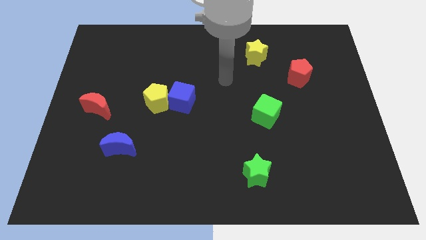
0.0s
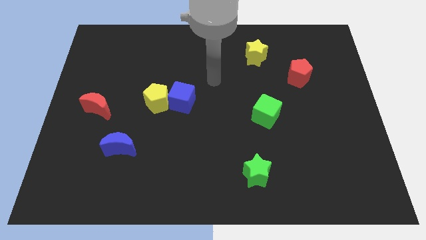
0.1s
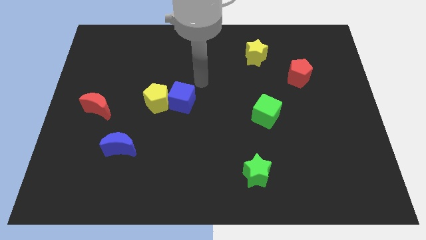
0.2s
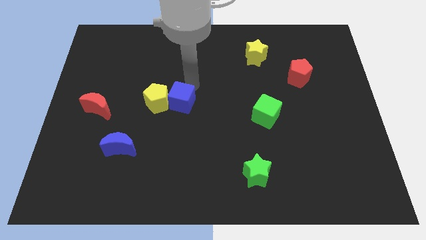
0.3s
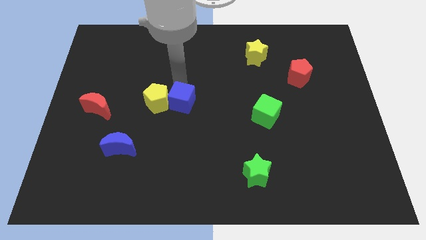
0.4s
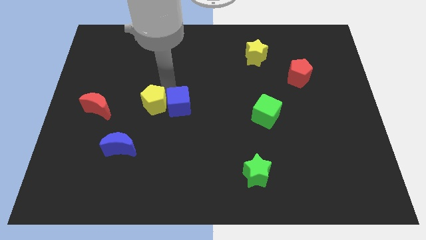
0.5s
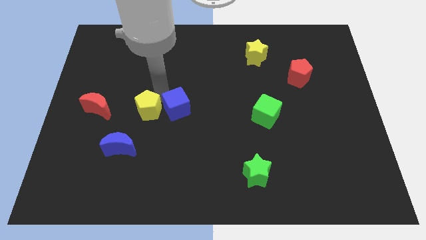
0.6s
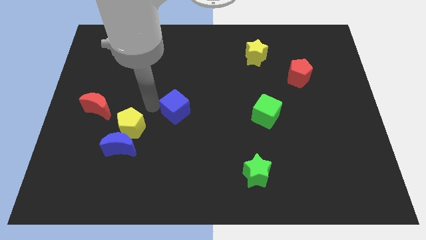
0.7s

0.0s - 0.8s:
move the blue cube away from the yellow pentagon

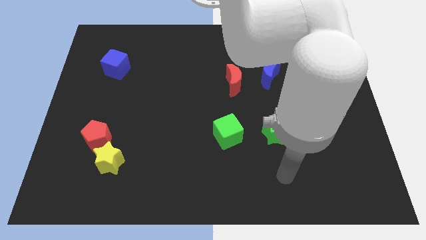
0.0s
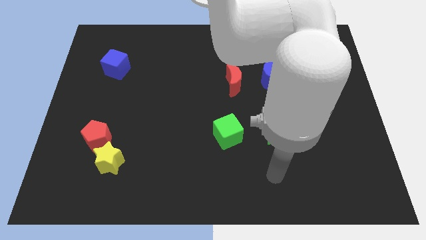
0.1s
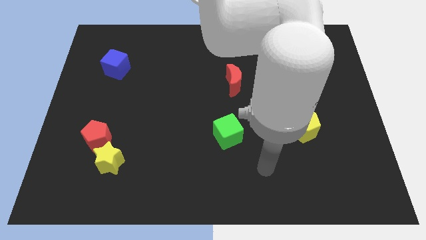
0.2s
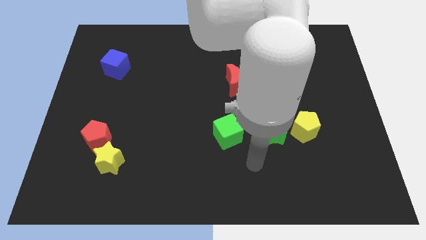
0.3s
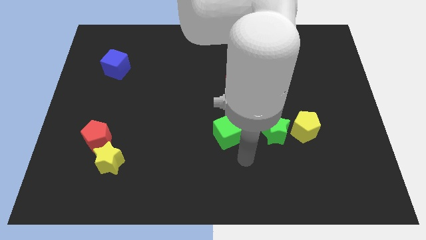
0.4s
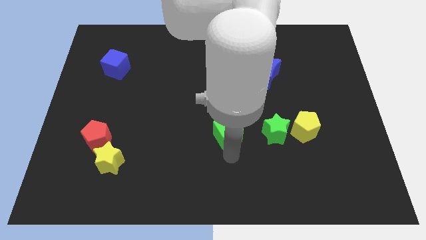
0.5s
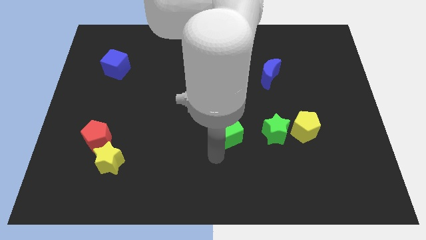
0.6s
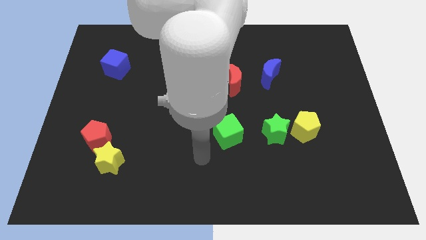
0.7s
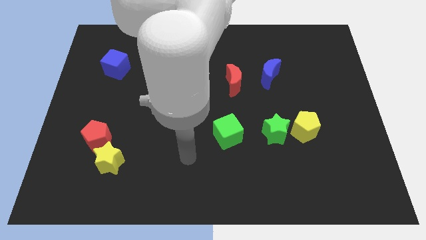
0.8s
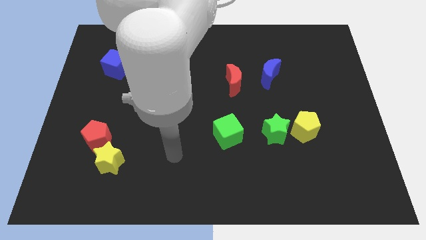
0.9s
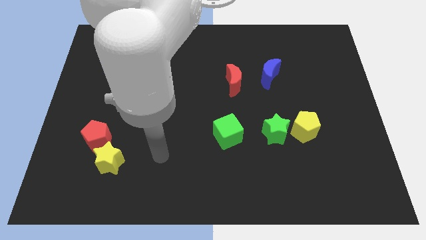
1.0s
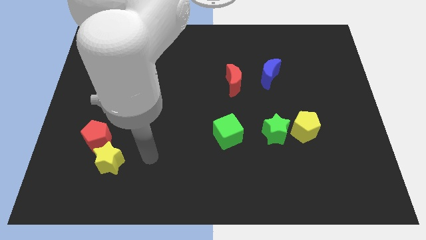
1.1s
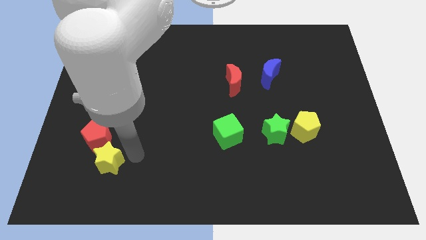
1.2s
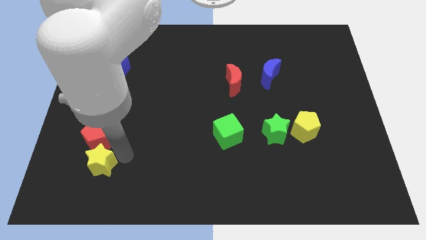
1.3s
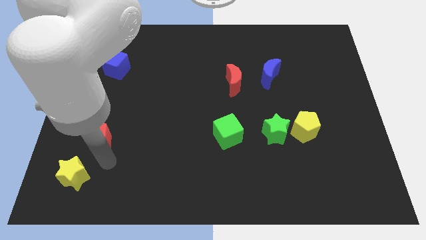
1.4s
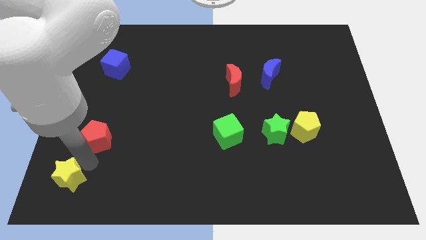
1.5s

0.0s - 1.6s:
move the red pentagon away from the yellow star

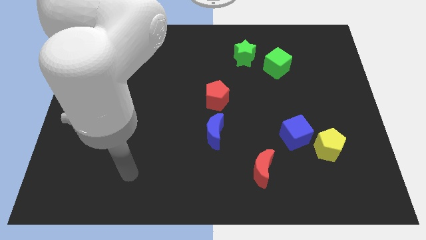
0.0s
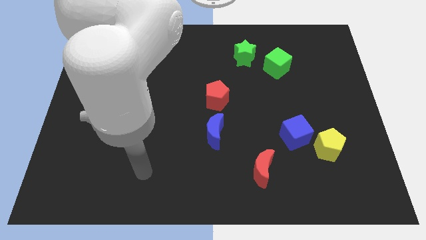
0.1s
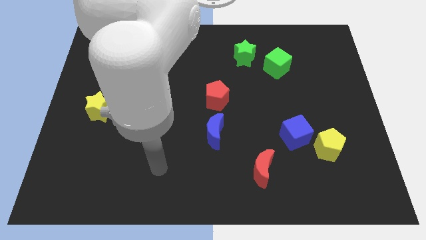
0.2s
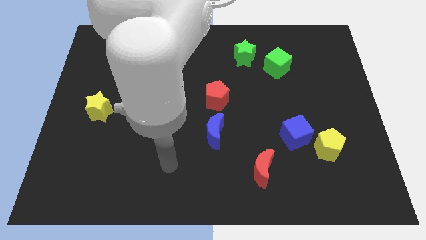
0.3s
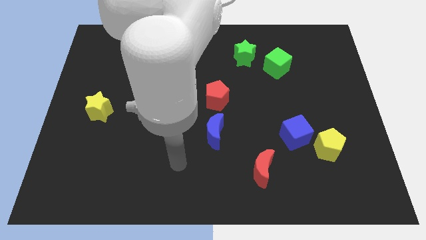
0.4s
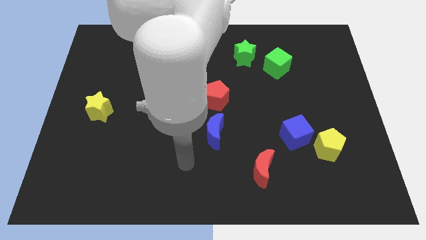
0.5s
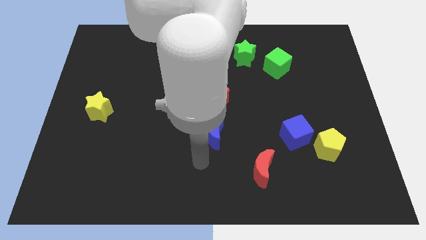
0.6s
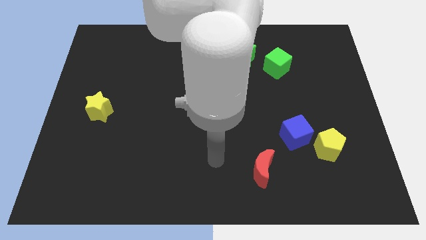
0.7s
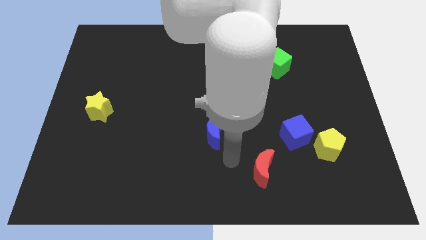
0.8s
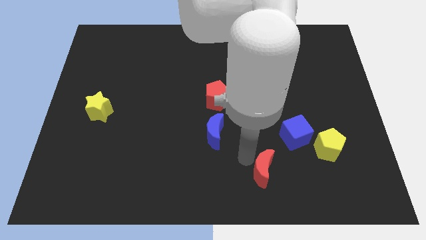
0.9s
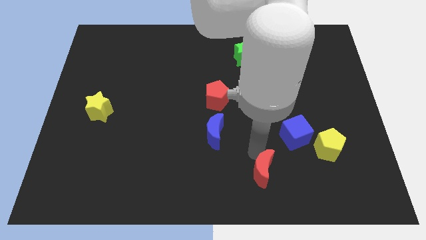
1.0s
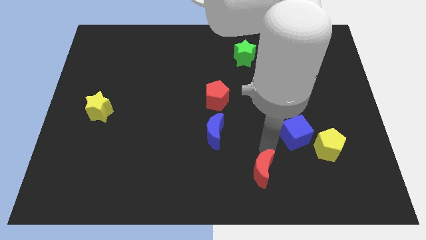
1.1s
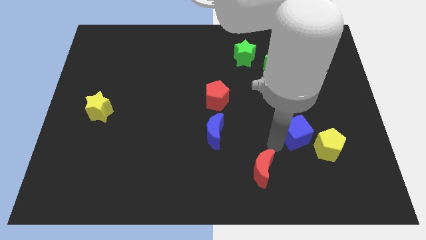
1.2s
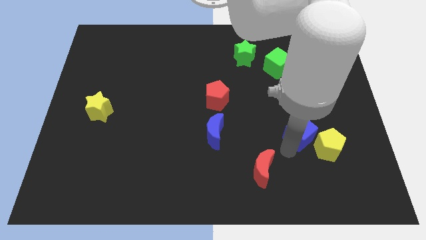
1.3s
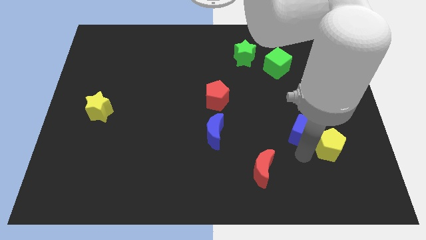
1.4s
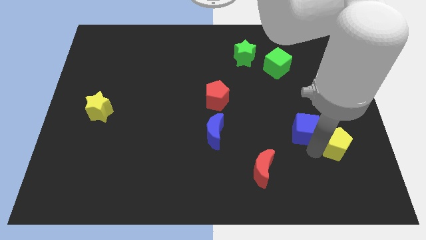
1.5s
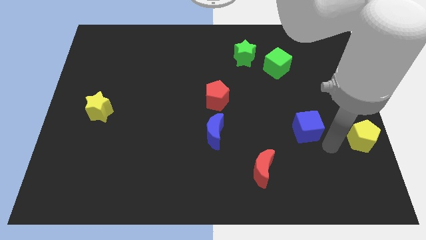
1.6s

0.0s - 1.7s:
pull the blue cube apart from the yellow pentagon

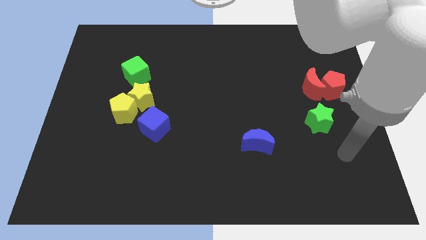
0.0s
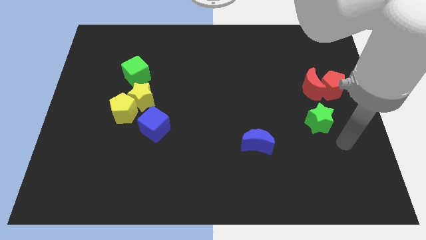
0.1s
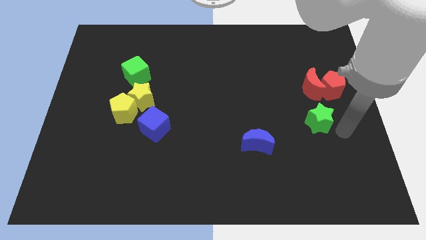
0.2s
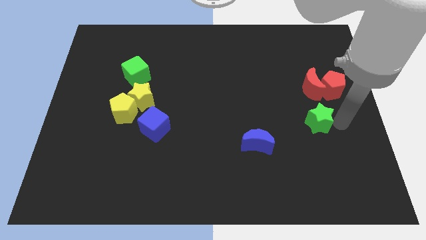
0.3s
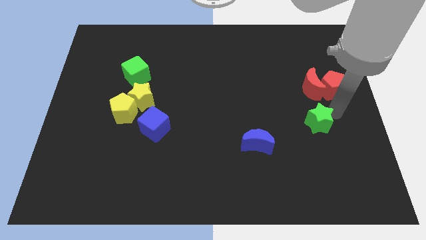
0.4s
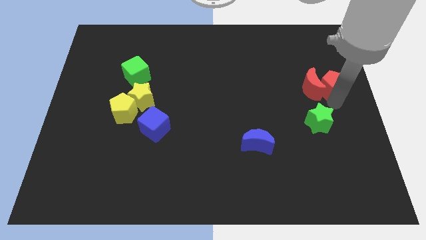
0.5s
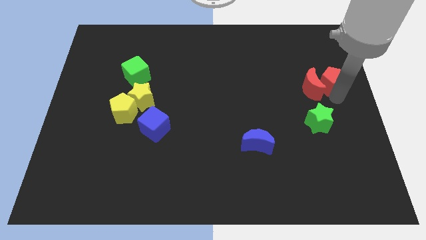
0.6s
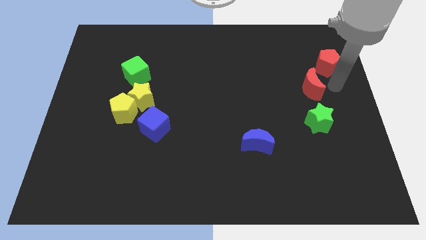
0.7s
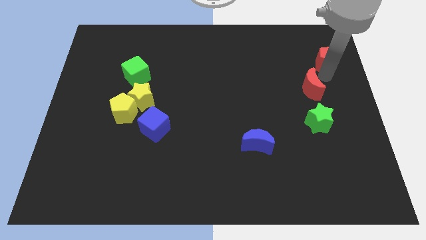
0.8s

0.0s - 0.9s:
separate the red moon from the red pentagon

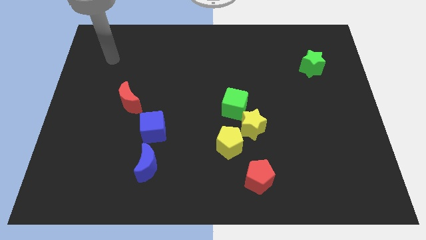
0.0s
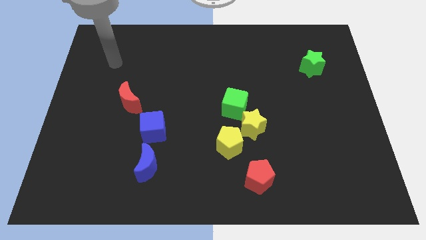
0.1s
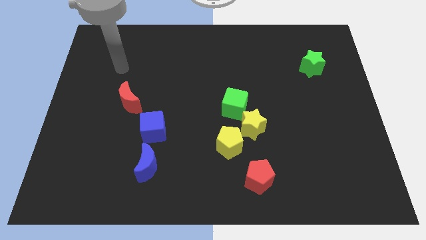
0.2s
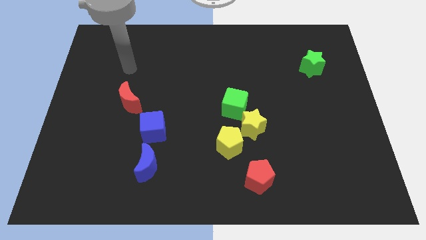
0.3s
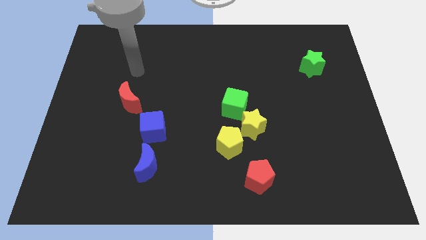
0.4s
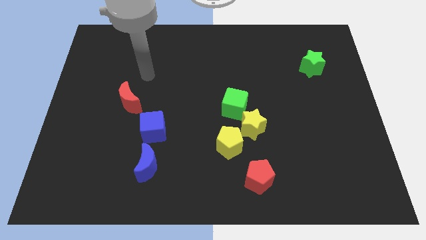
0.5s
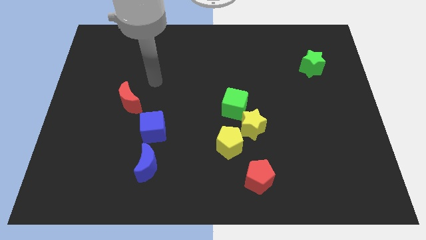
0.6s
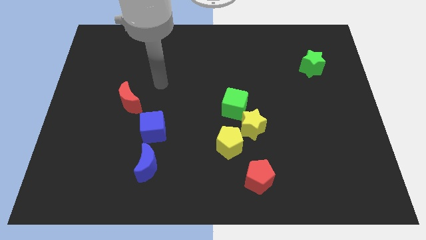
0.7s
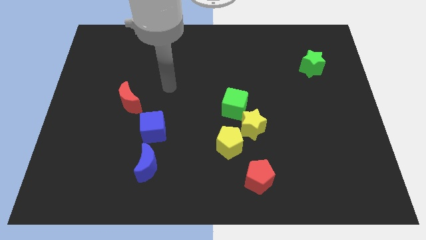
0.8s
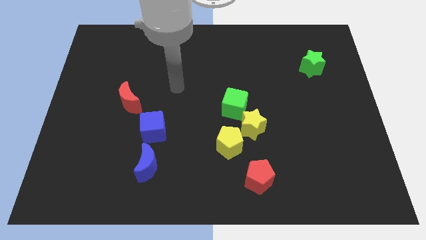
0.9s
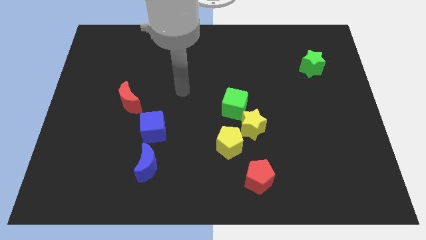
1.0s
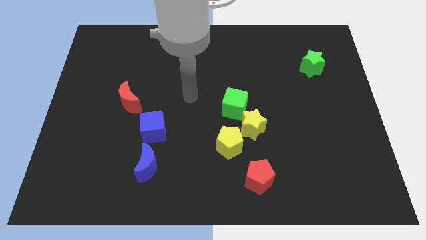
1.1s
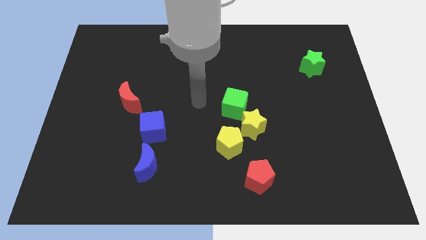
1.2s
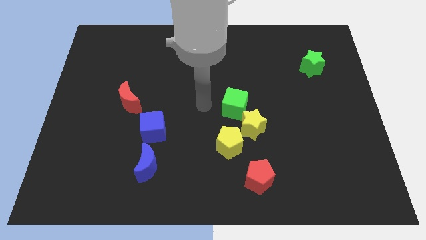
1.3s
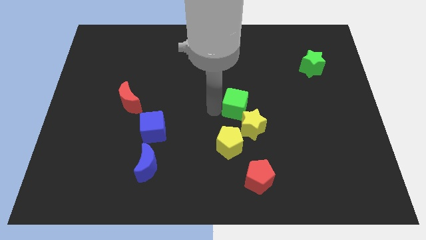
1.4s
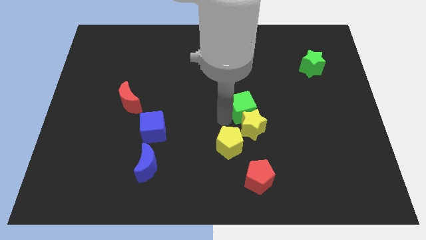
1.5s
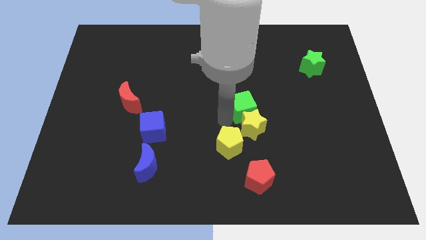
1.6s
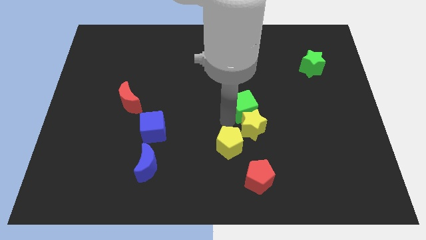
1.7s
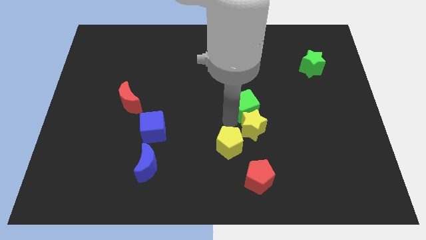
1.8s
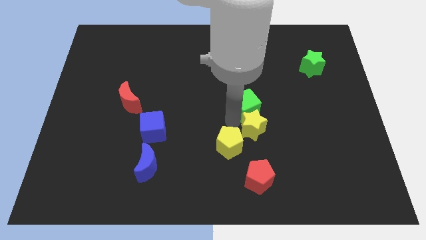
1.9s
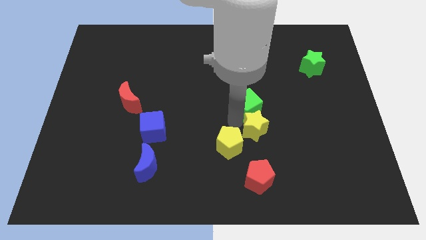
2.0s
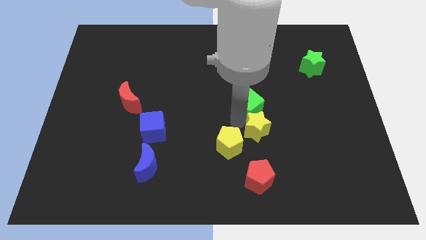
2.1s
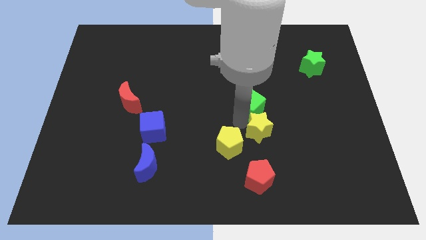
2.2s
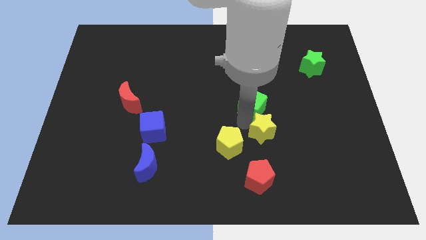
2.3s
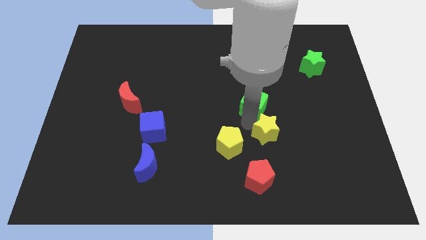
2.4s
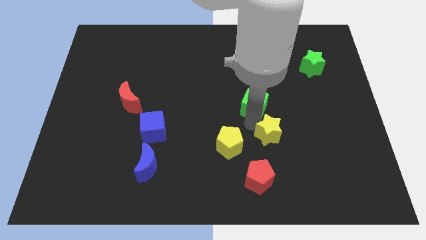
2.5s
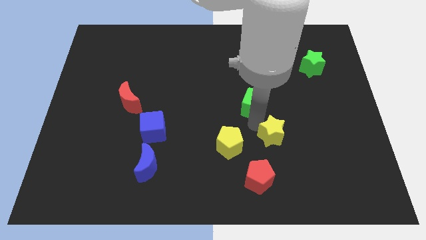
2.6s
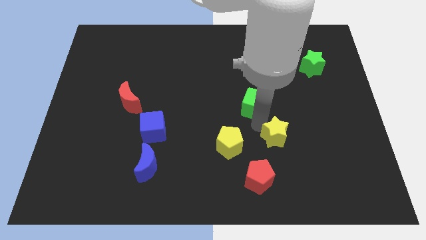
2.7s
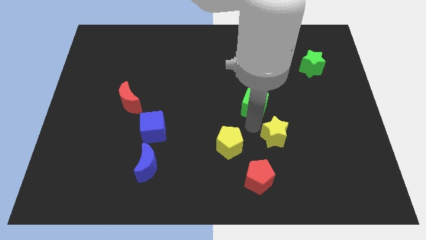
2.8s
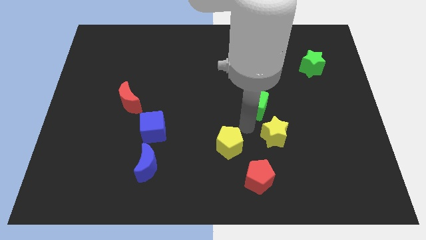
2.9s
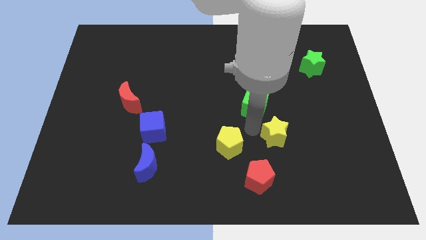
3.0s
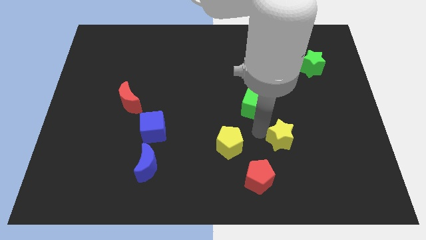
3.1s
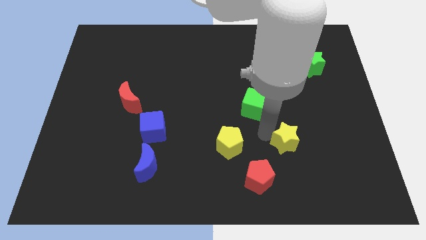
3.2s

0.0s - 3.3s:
separate the yellow star from the yellow pentagon and green cube

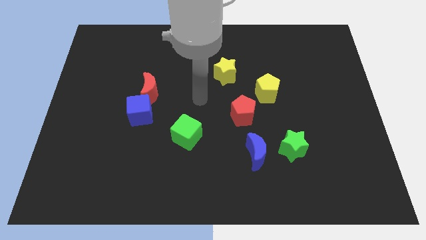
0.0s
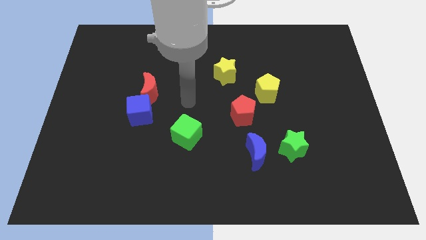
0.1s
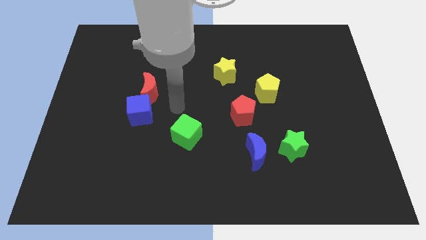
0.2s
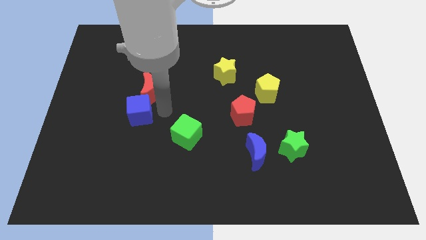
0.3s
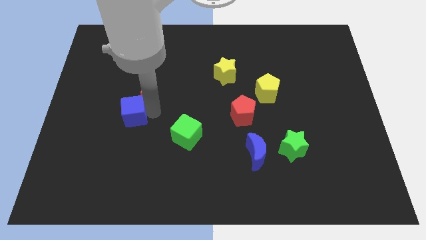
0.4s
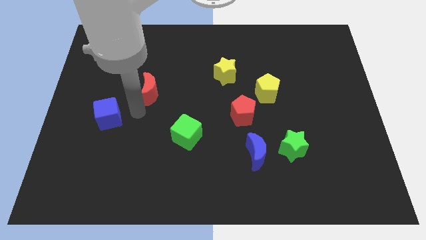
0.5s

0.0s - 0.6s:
move the red moon away from the blue cube

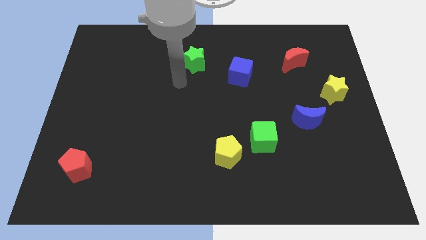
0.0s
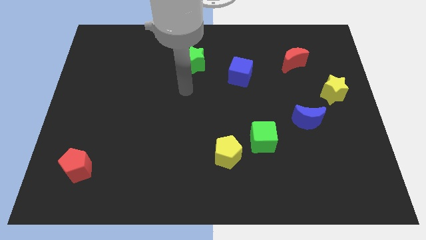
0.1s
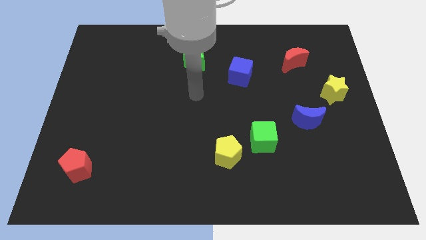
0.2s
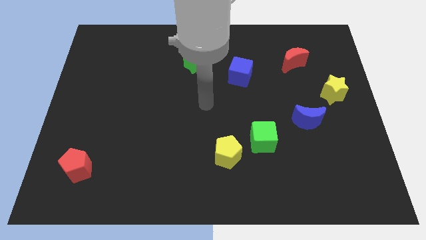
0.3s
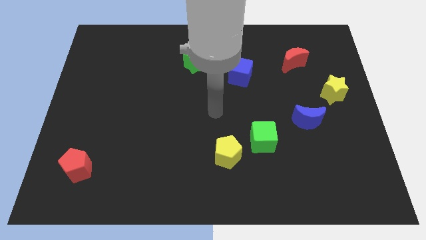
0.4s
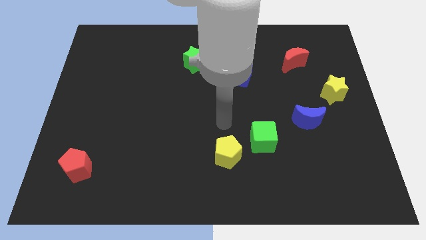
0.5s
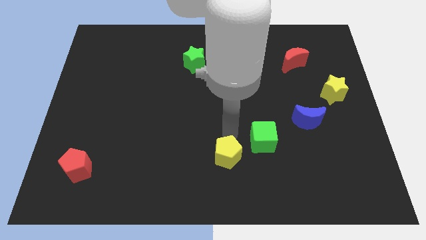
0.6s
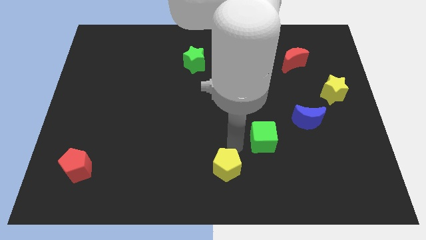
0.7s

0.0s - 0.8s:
pull the green cube apart from the yellow pentagon
